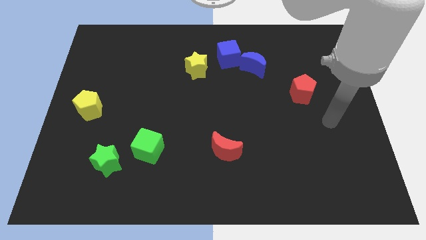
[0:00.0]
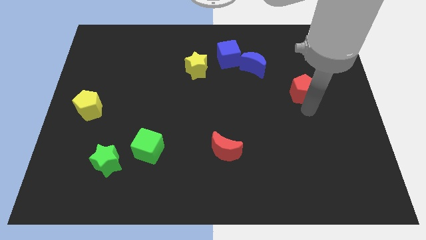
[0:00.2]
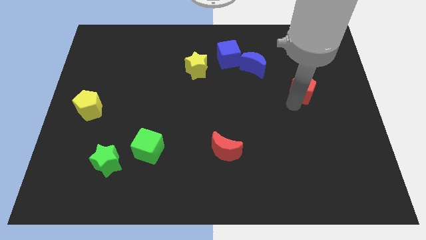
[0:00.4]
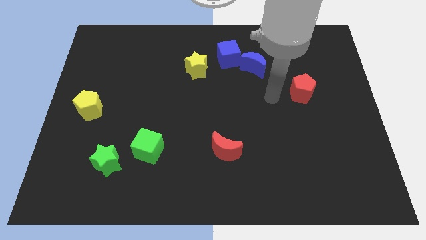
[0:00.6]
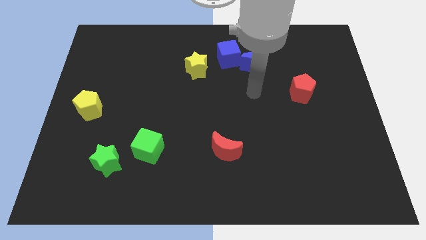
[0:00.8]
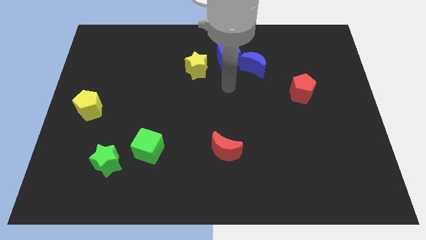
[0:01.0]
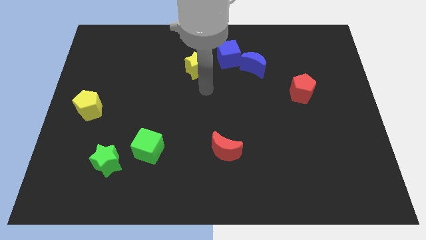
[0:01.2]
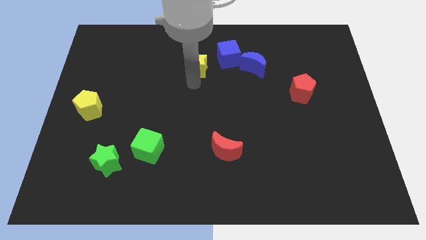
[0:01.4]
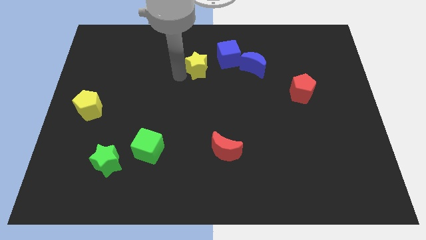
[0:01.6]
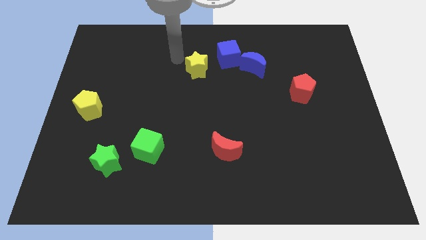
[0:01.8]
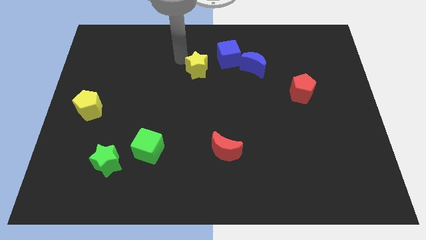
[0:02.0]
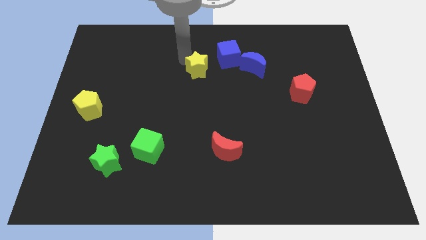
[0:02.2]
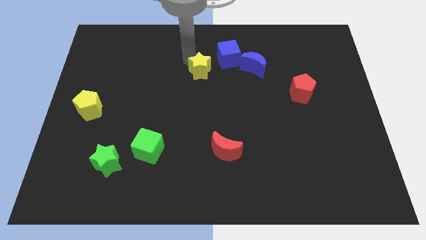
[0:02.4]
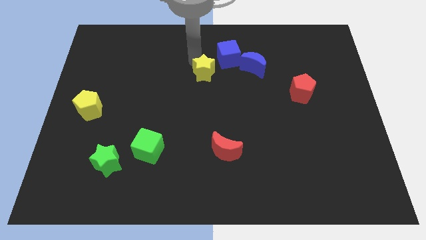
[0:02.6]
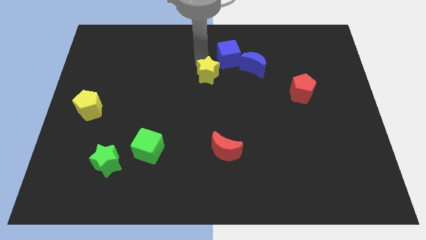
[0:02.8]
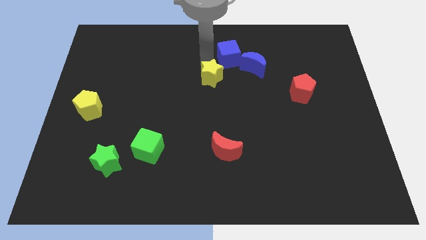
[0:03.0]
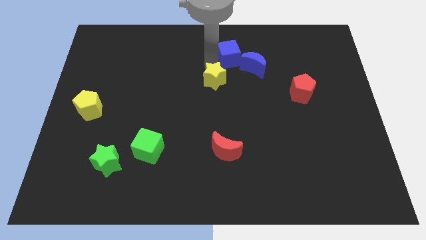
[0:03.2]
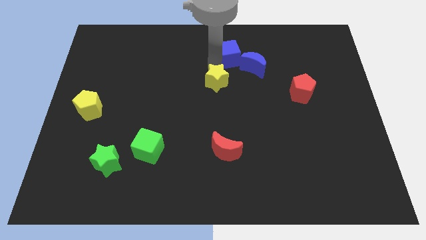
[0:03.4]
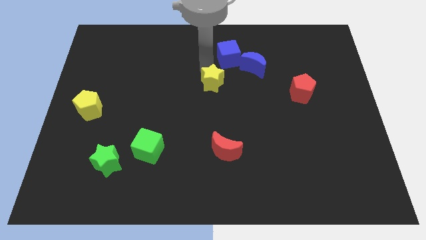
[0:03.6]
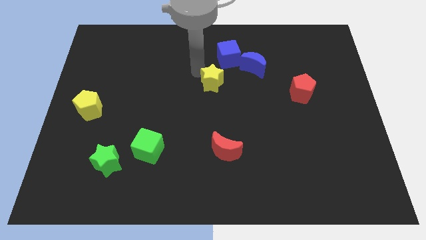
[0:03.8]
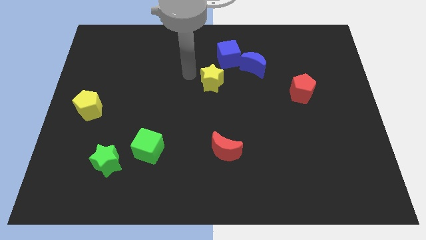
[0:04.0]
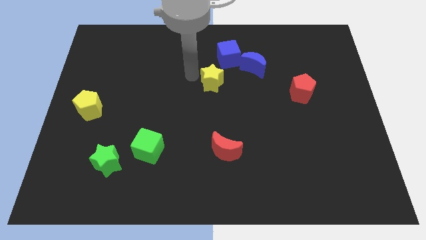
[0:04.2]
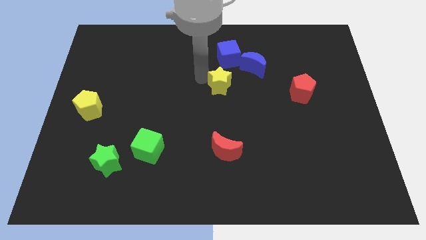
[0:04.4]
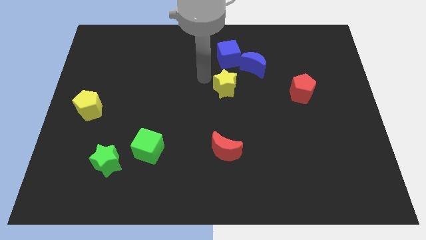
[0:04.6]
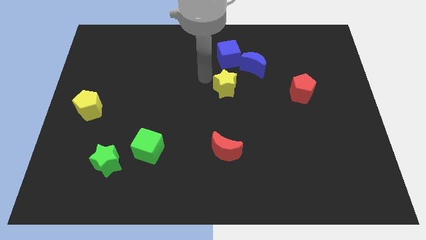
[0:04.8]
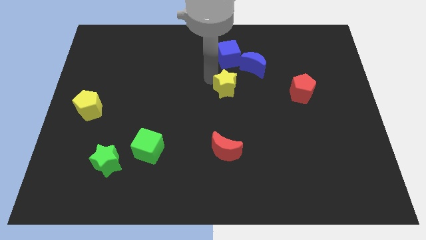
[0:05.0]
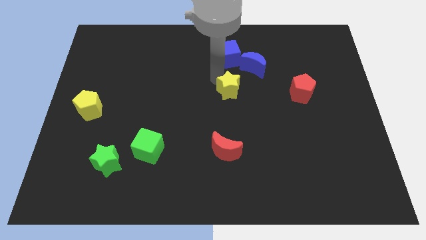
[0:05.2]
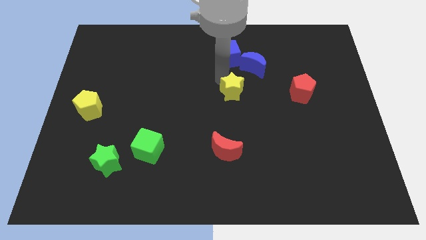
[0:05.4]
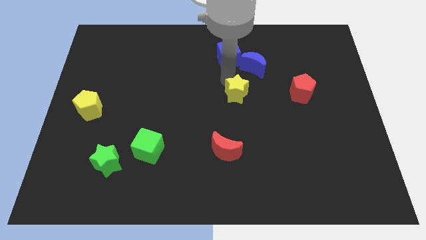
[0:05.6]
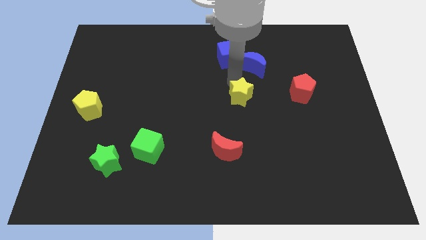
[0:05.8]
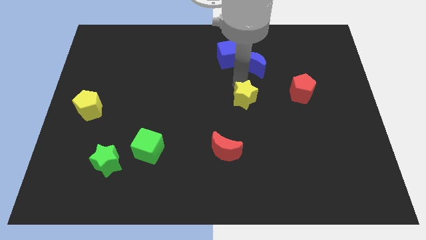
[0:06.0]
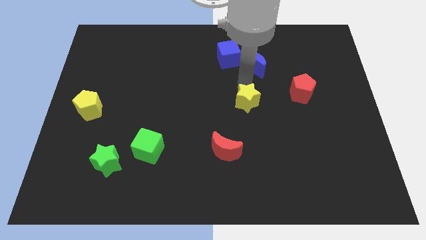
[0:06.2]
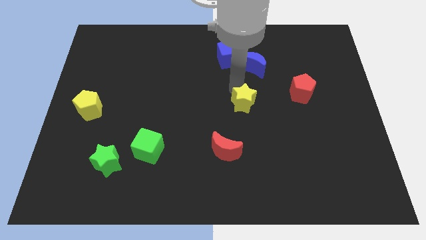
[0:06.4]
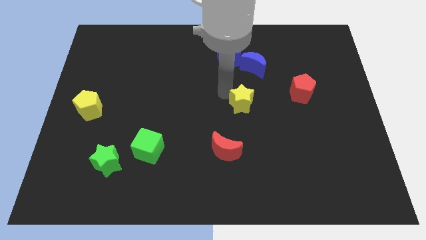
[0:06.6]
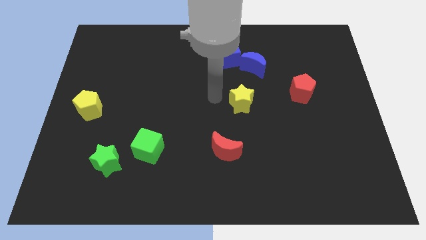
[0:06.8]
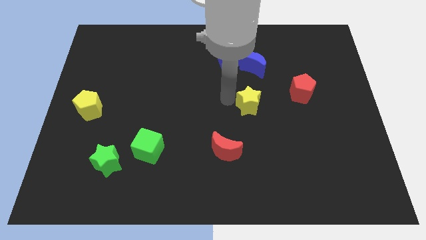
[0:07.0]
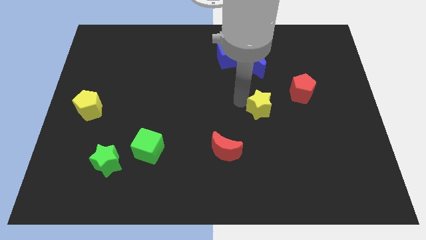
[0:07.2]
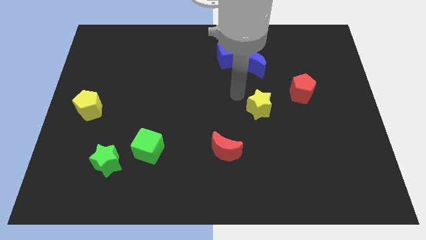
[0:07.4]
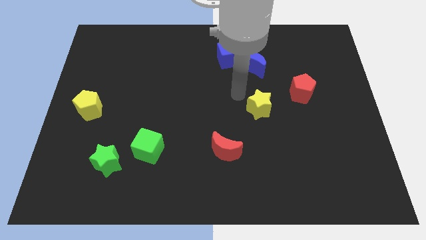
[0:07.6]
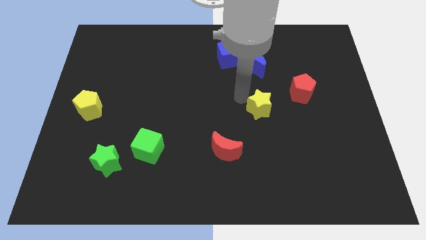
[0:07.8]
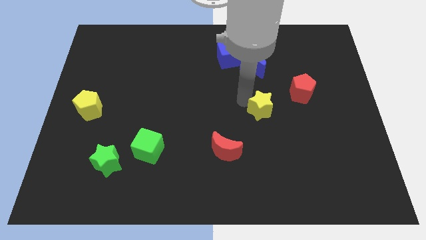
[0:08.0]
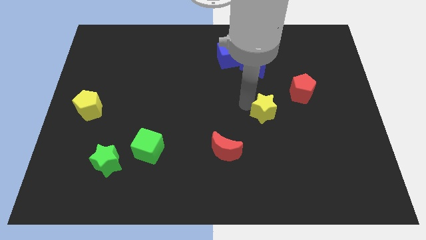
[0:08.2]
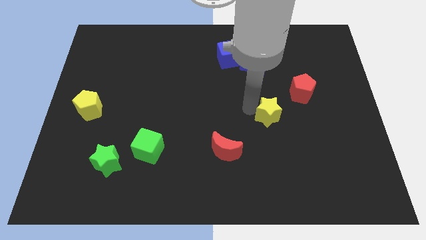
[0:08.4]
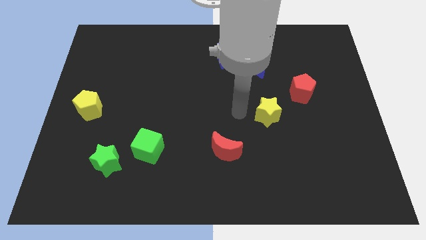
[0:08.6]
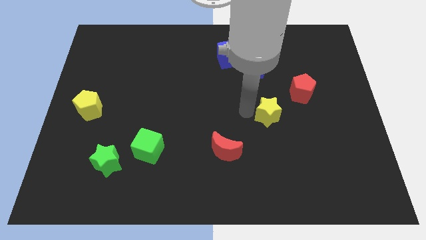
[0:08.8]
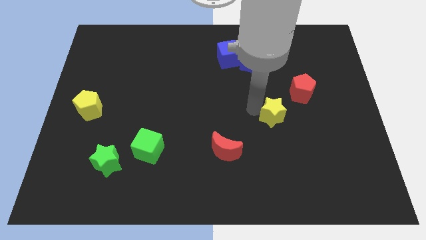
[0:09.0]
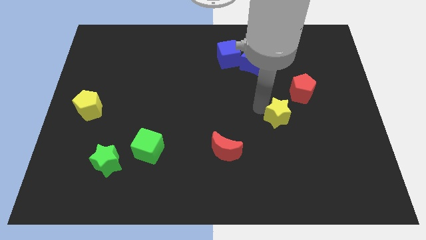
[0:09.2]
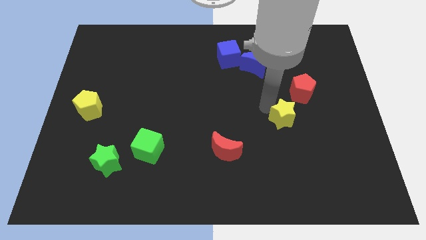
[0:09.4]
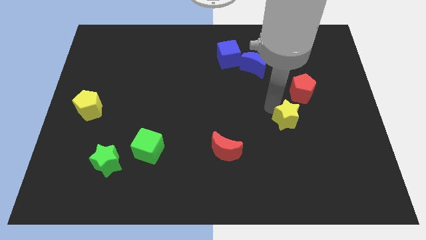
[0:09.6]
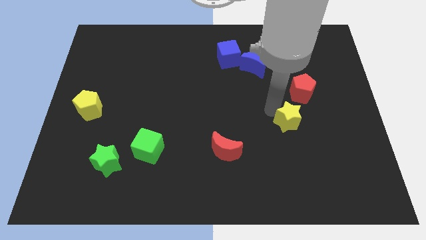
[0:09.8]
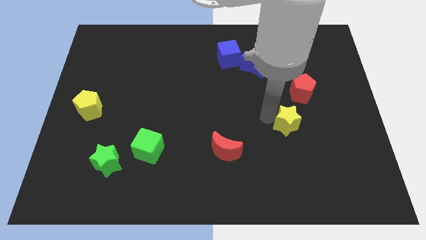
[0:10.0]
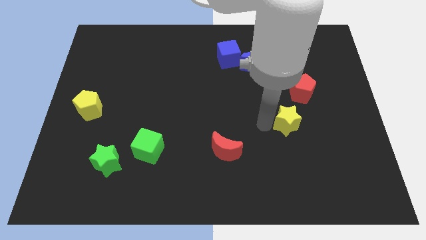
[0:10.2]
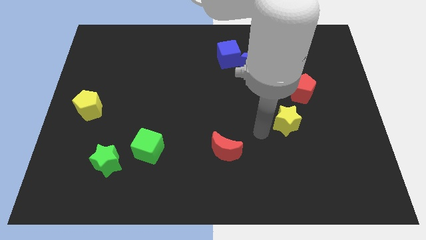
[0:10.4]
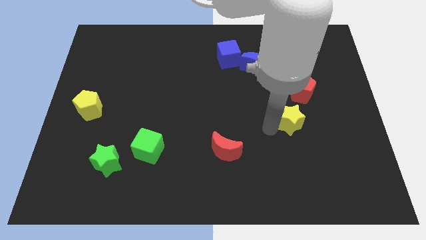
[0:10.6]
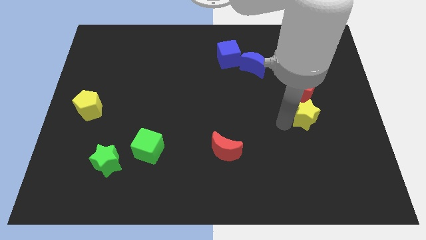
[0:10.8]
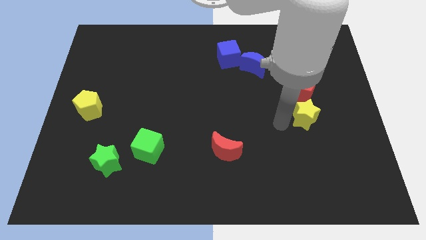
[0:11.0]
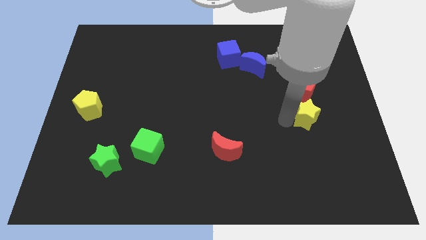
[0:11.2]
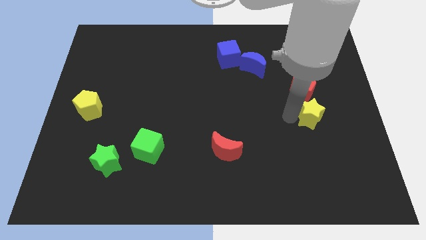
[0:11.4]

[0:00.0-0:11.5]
slide the yellow star diagonally down and to the right of the red pentagon
